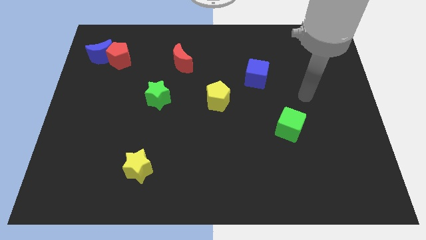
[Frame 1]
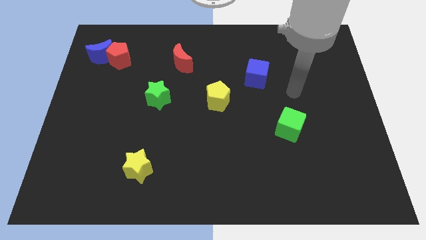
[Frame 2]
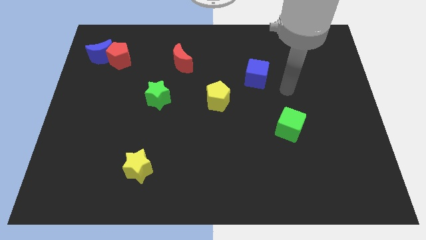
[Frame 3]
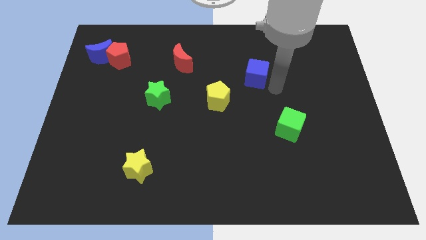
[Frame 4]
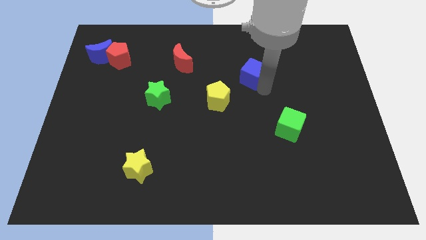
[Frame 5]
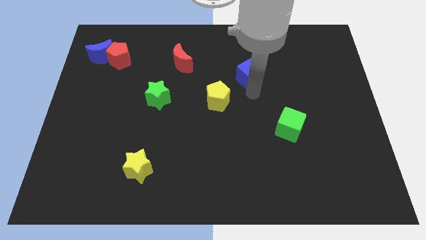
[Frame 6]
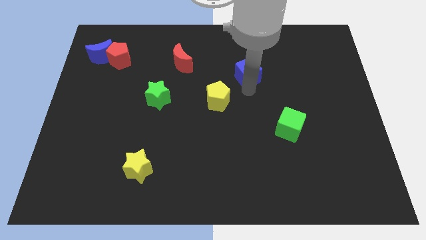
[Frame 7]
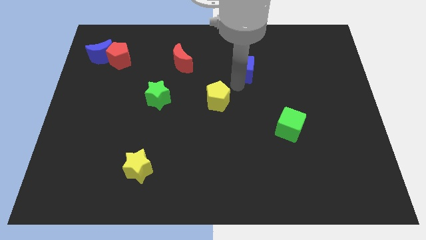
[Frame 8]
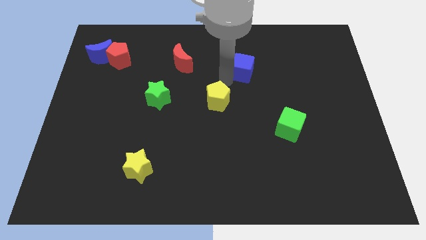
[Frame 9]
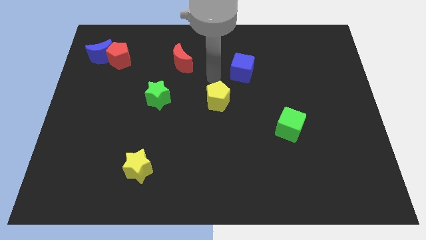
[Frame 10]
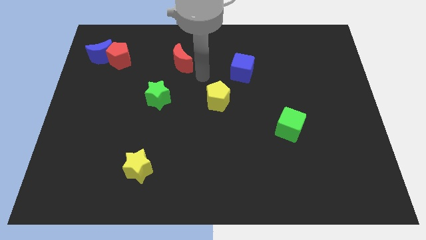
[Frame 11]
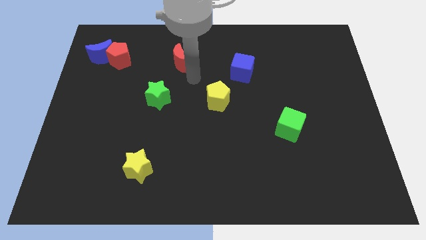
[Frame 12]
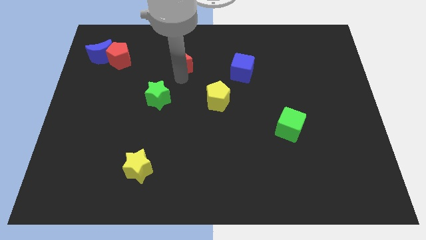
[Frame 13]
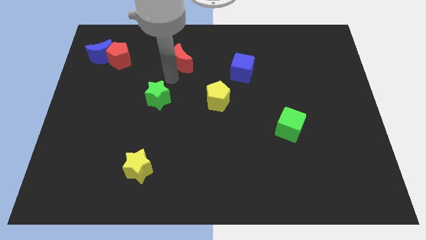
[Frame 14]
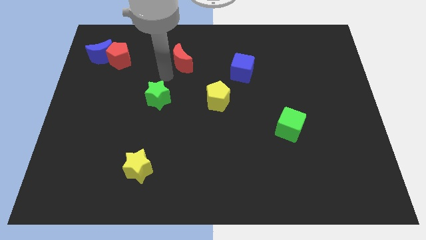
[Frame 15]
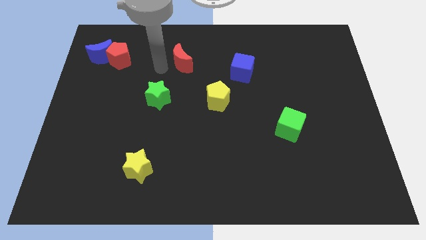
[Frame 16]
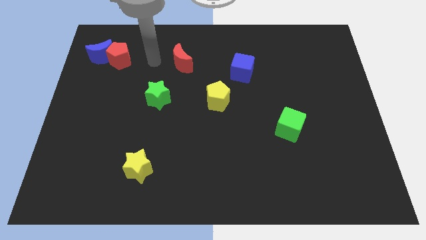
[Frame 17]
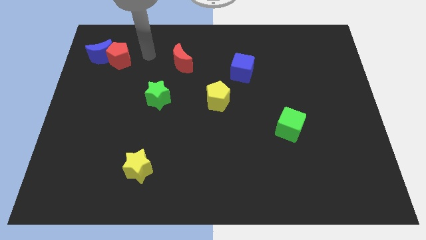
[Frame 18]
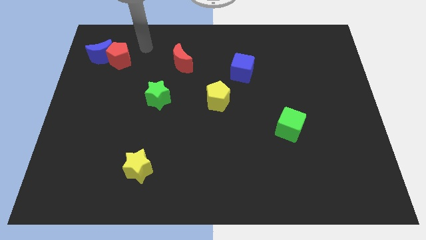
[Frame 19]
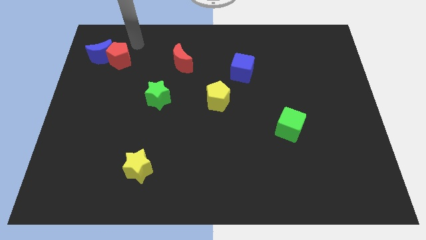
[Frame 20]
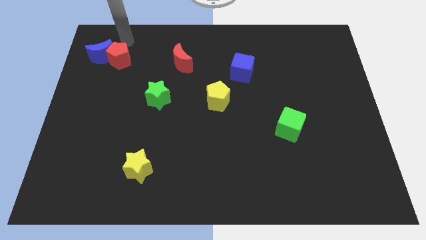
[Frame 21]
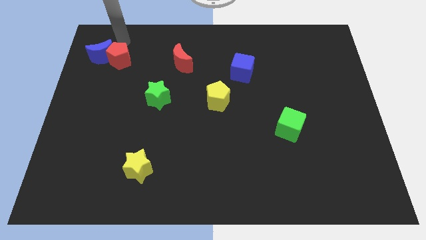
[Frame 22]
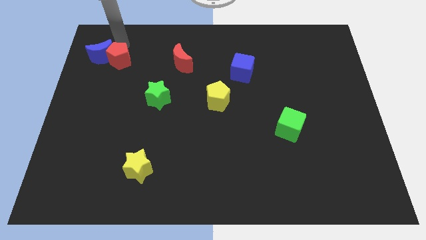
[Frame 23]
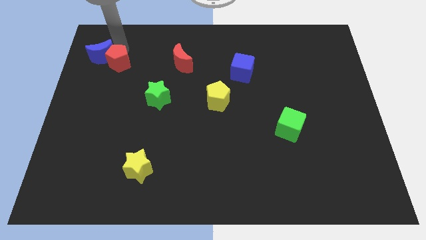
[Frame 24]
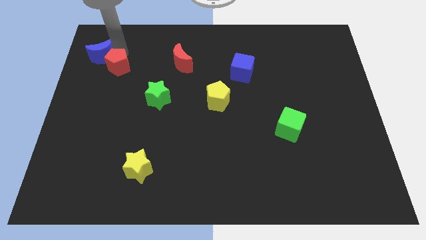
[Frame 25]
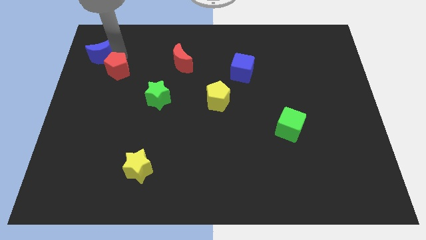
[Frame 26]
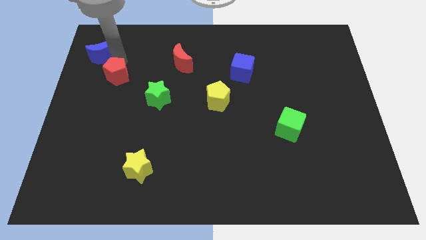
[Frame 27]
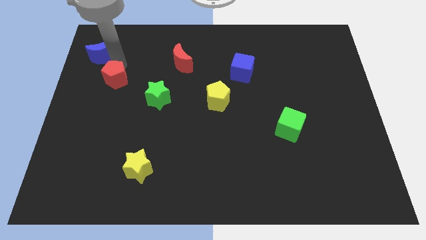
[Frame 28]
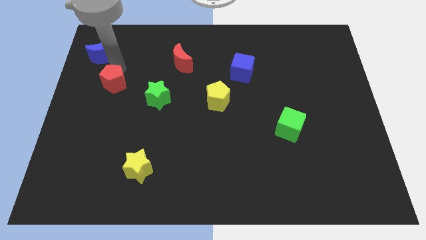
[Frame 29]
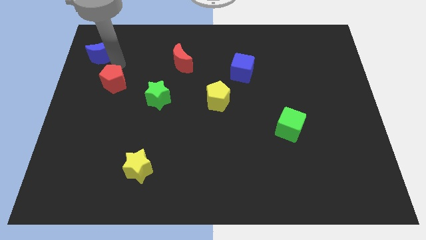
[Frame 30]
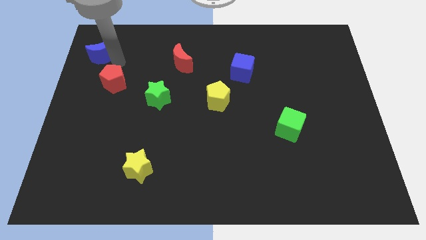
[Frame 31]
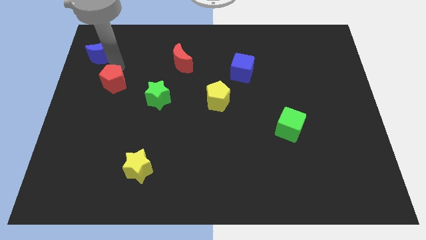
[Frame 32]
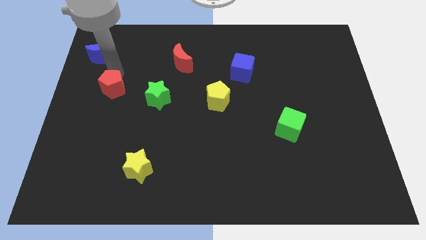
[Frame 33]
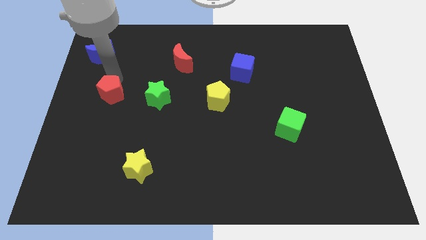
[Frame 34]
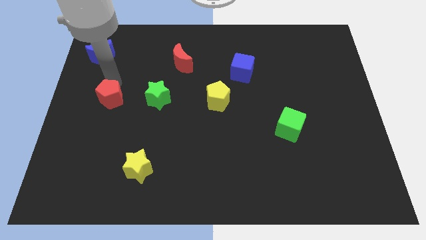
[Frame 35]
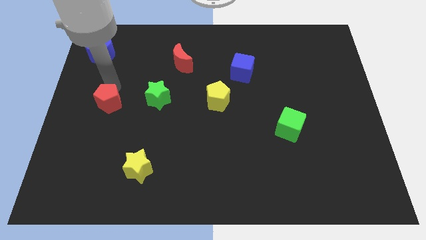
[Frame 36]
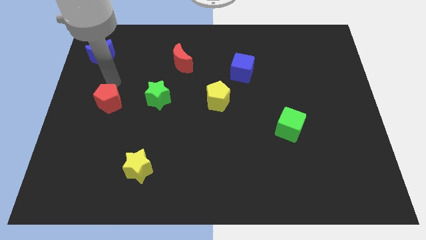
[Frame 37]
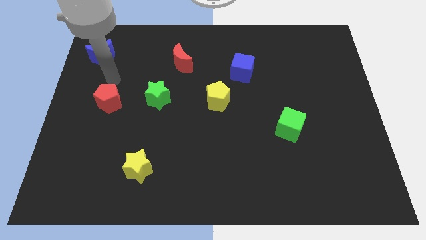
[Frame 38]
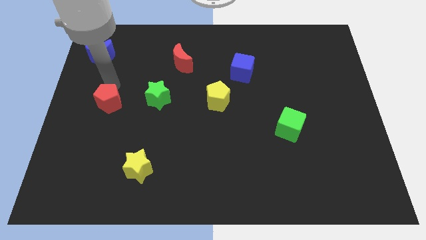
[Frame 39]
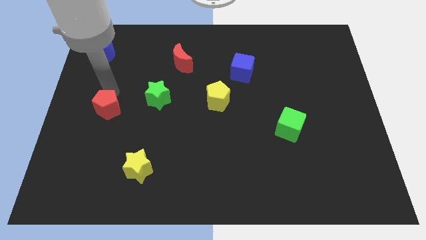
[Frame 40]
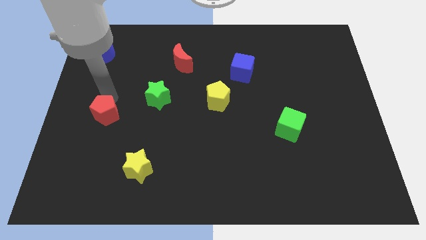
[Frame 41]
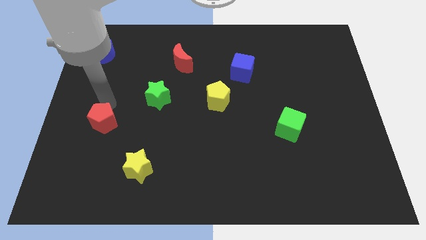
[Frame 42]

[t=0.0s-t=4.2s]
push the red pentagon downwards

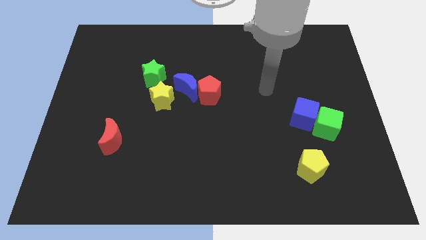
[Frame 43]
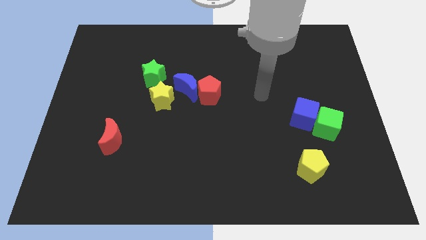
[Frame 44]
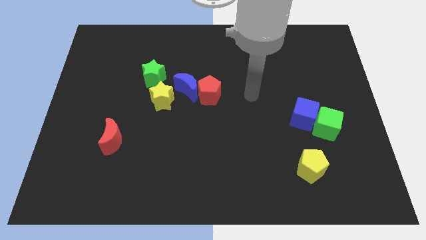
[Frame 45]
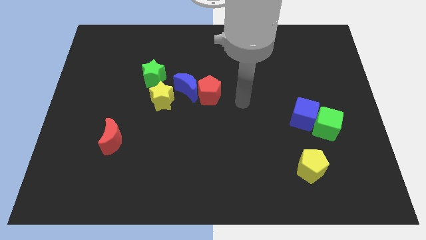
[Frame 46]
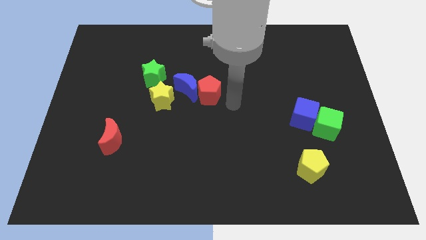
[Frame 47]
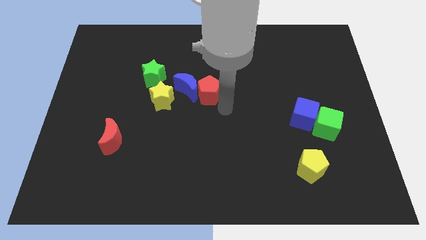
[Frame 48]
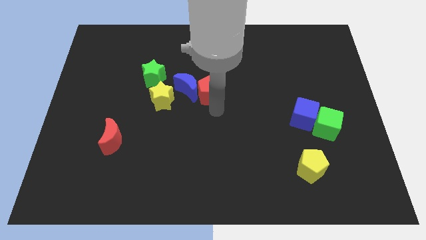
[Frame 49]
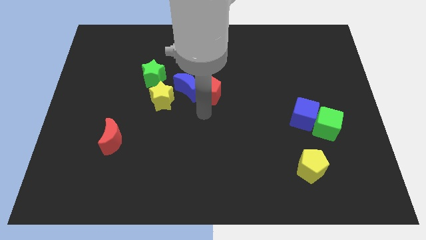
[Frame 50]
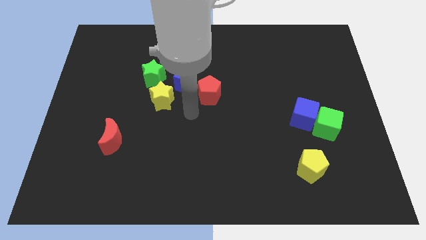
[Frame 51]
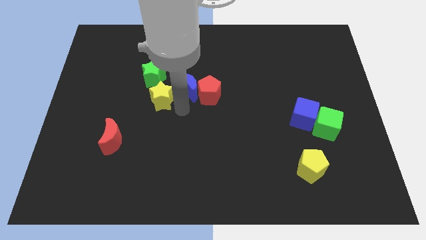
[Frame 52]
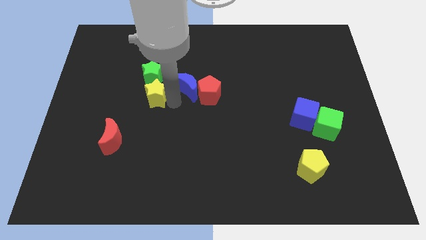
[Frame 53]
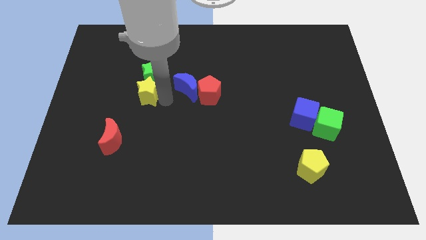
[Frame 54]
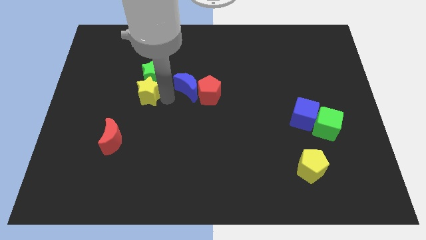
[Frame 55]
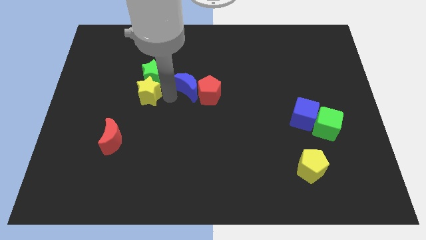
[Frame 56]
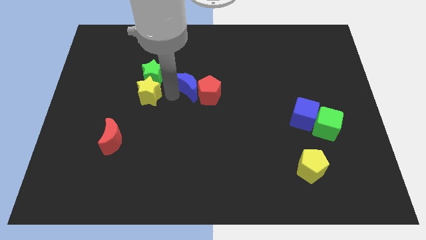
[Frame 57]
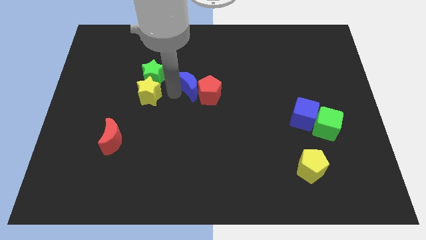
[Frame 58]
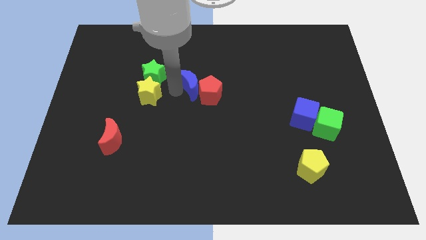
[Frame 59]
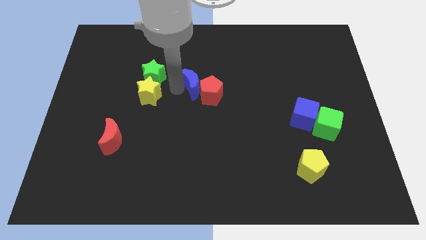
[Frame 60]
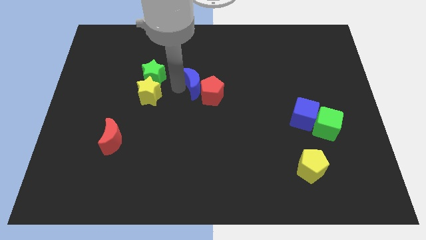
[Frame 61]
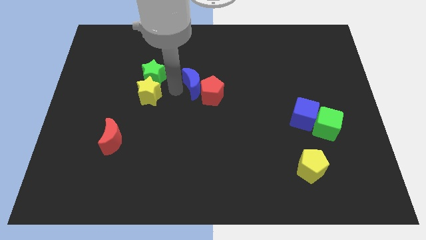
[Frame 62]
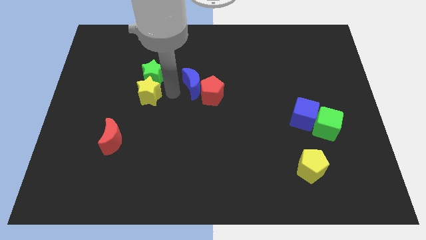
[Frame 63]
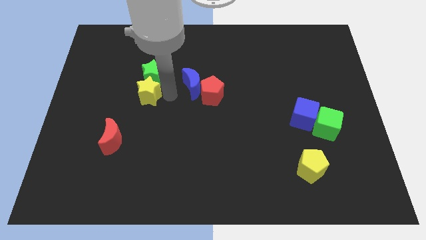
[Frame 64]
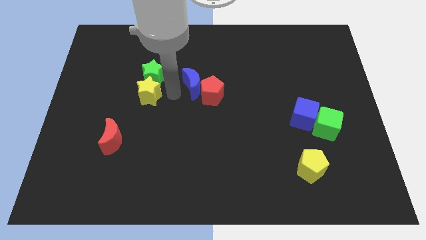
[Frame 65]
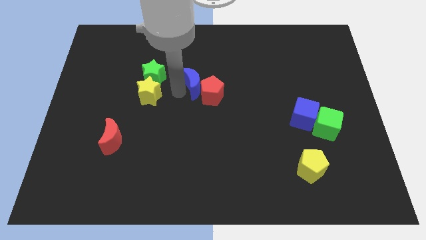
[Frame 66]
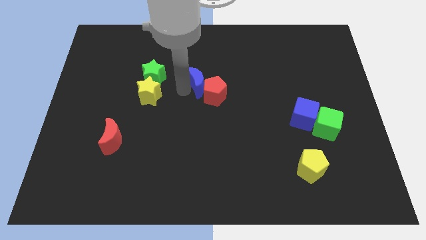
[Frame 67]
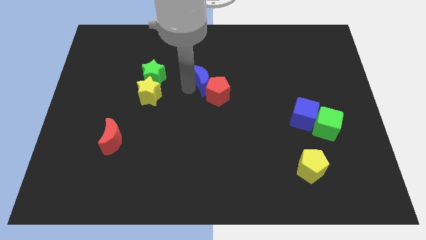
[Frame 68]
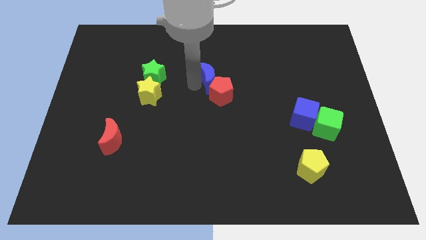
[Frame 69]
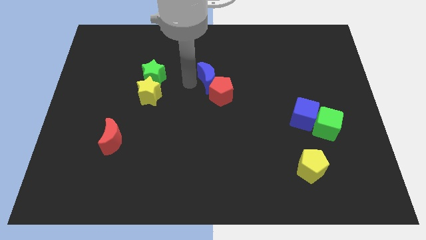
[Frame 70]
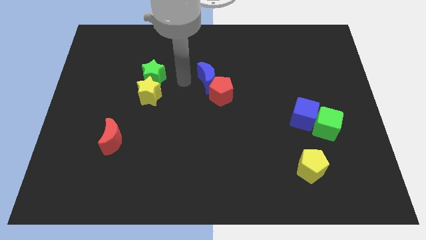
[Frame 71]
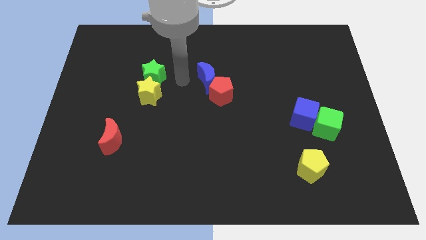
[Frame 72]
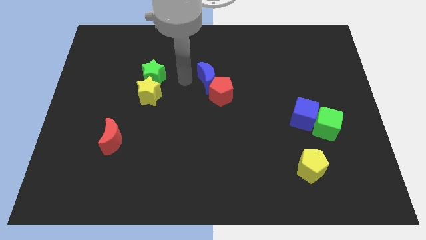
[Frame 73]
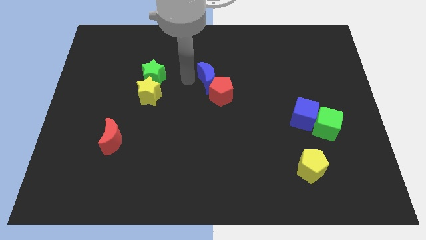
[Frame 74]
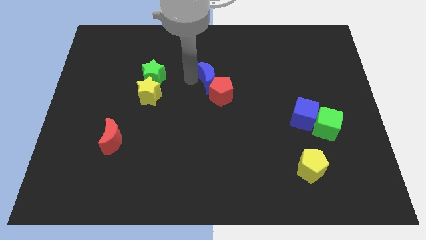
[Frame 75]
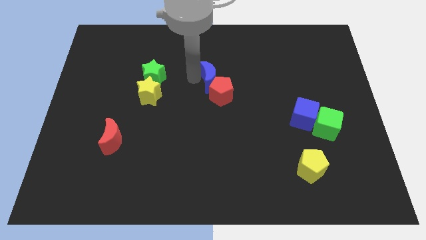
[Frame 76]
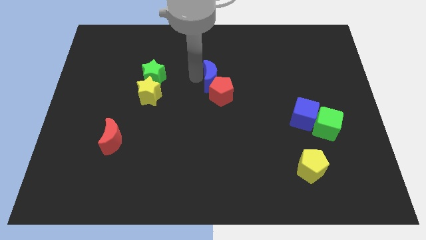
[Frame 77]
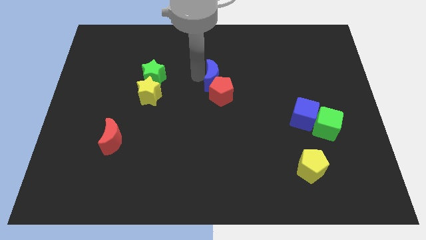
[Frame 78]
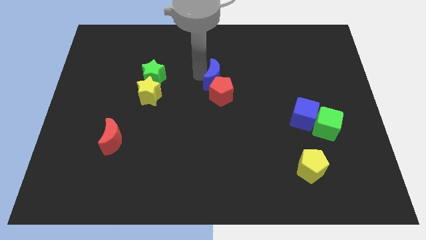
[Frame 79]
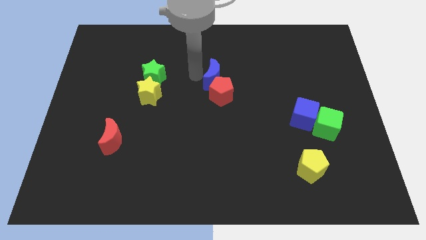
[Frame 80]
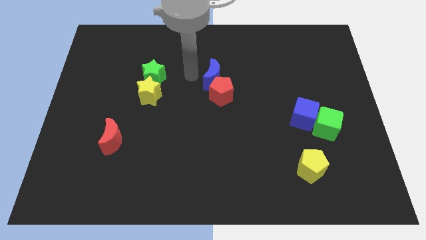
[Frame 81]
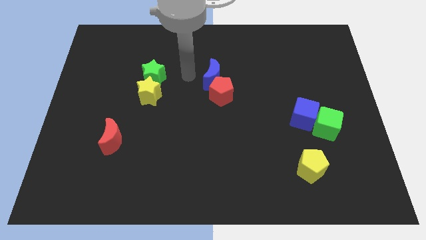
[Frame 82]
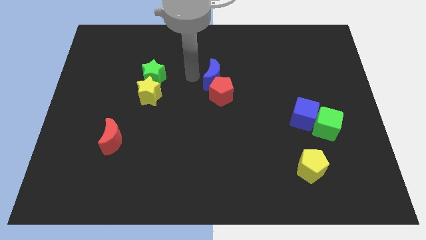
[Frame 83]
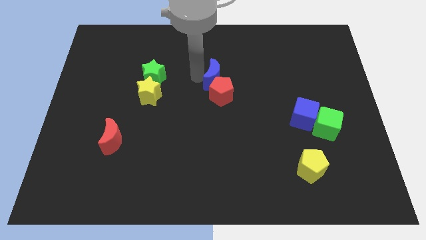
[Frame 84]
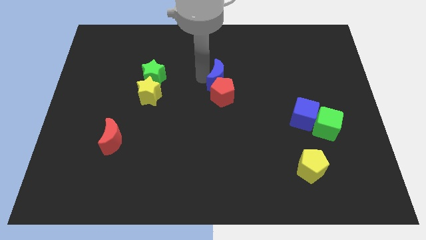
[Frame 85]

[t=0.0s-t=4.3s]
slightly push the blue moon to the right
